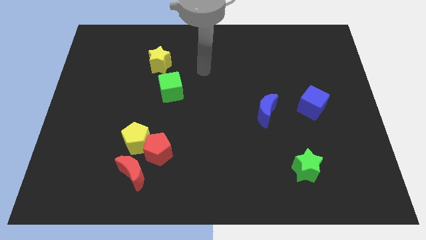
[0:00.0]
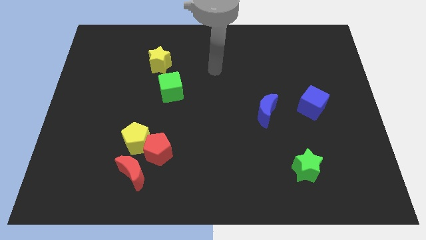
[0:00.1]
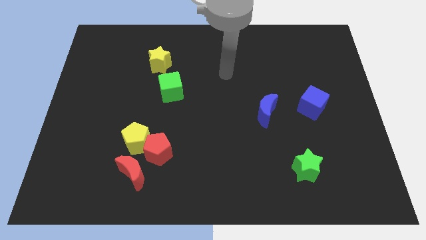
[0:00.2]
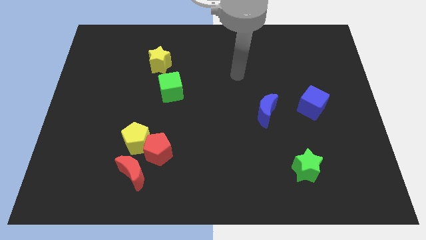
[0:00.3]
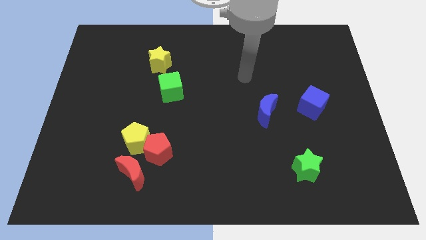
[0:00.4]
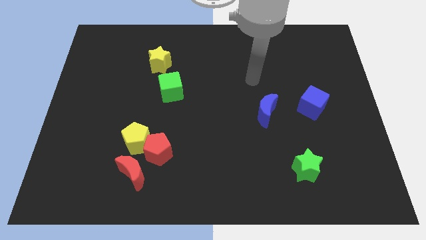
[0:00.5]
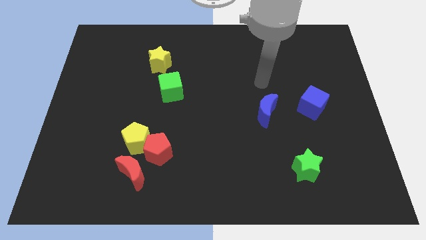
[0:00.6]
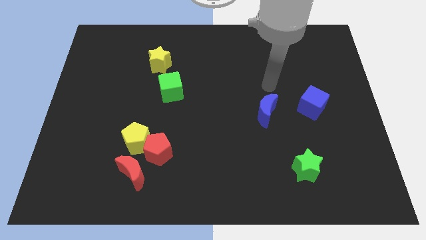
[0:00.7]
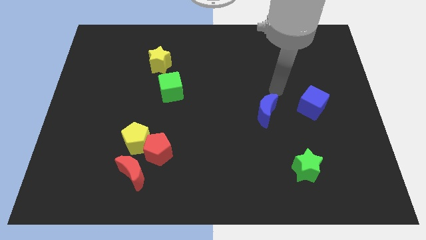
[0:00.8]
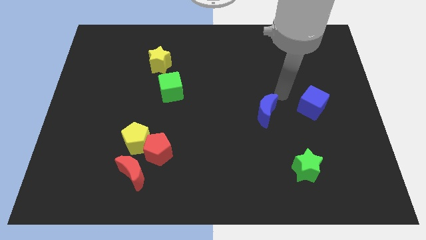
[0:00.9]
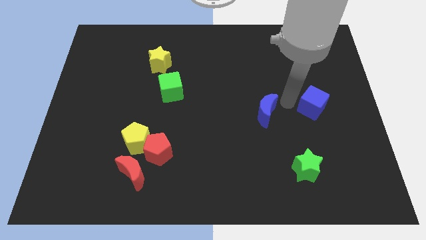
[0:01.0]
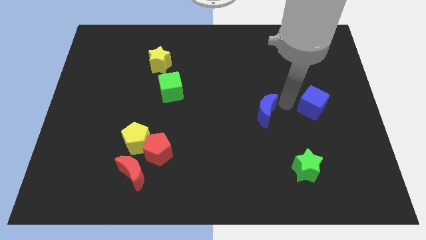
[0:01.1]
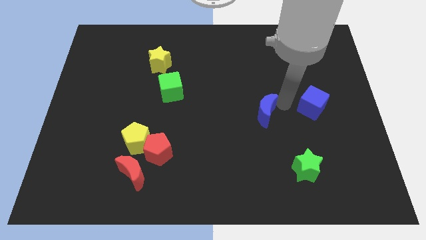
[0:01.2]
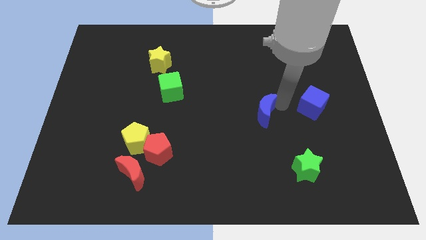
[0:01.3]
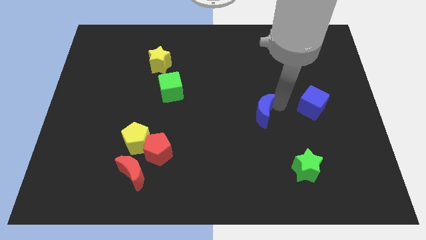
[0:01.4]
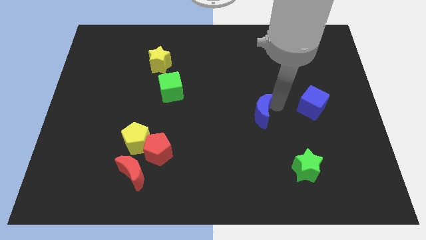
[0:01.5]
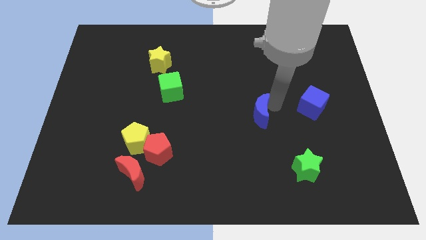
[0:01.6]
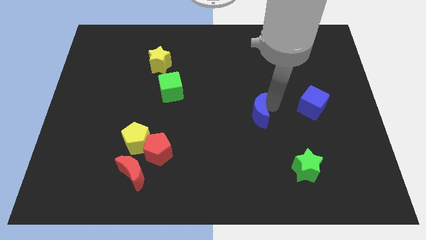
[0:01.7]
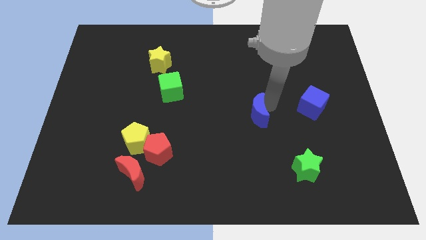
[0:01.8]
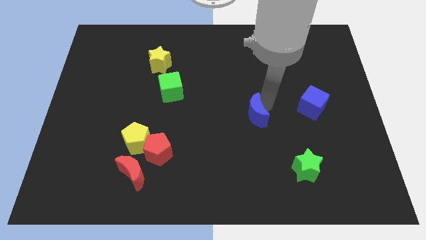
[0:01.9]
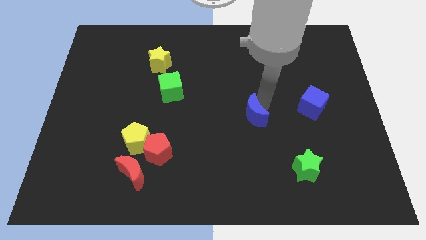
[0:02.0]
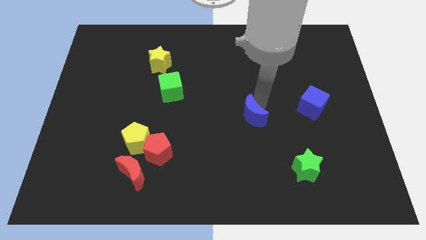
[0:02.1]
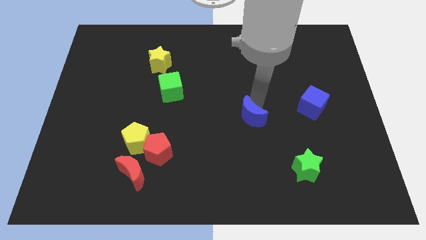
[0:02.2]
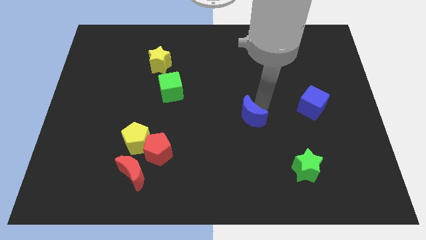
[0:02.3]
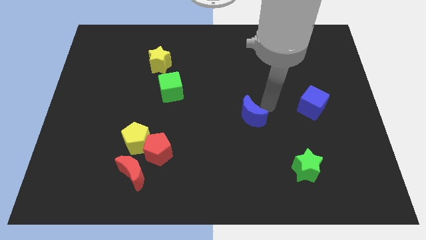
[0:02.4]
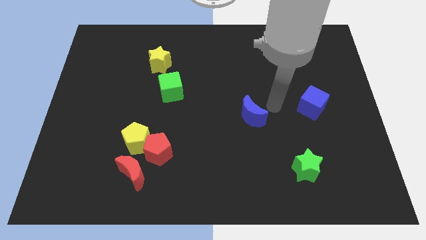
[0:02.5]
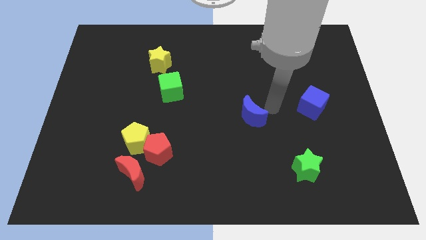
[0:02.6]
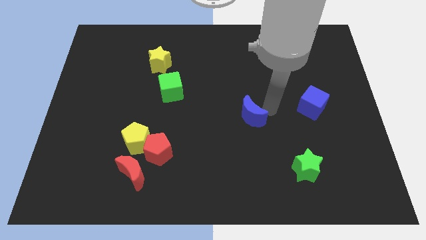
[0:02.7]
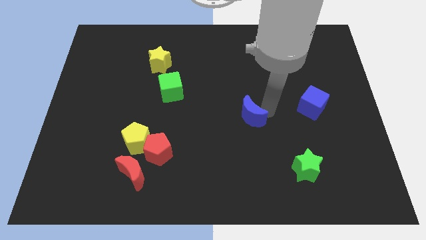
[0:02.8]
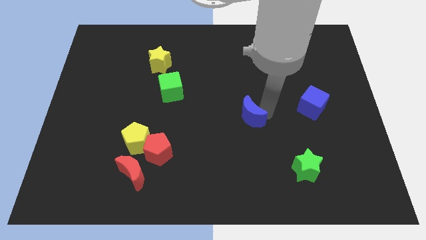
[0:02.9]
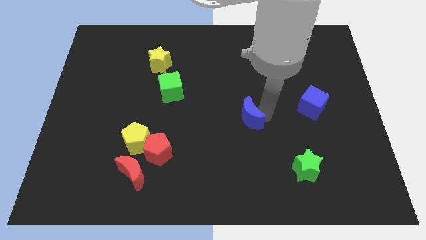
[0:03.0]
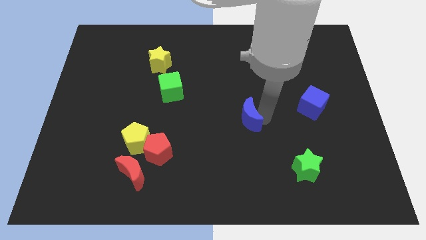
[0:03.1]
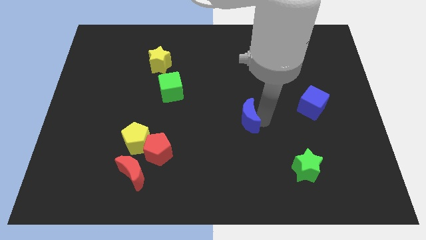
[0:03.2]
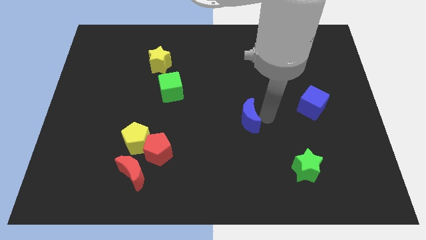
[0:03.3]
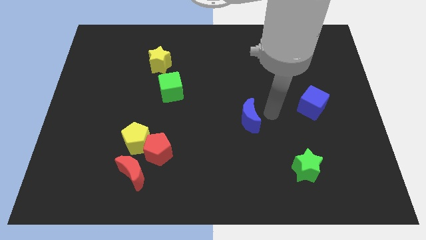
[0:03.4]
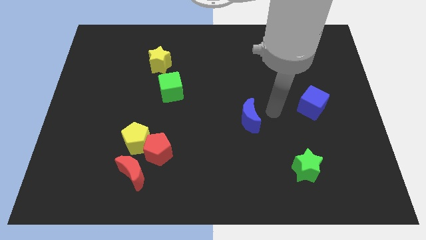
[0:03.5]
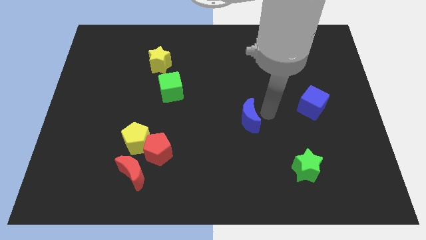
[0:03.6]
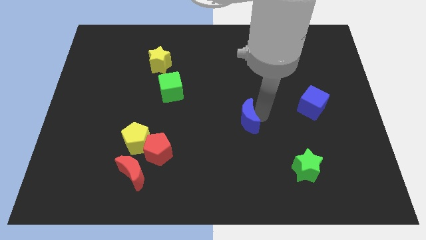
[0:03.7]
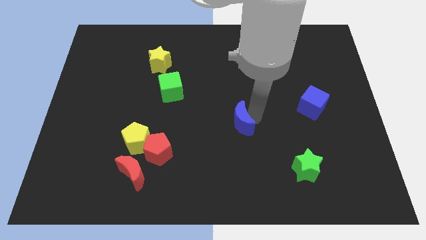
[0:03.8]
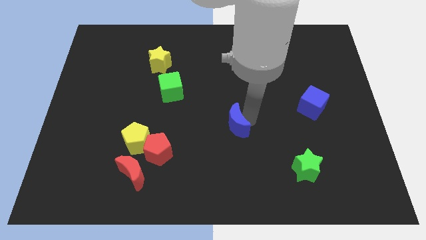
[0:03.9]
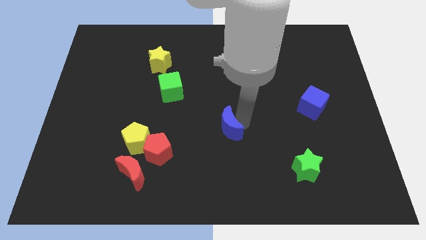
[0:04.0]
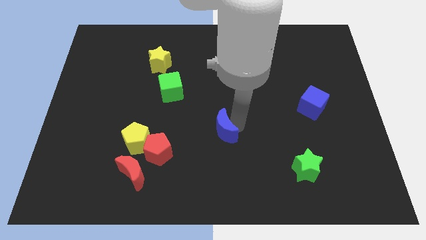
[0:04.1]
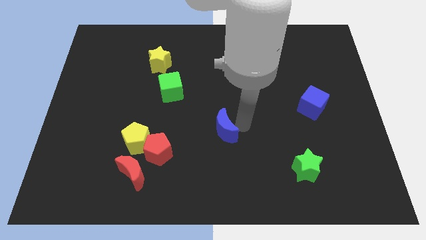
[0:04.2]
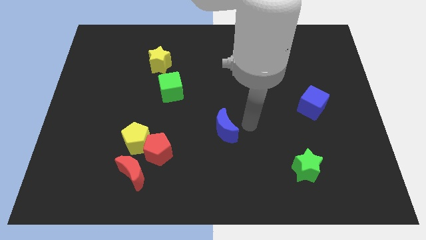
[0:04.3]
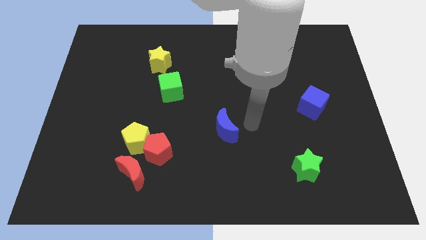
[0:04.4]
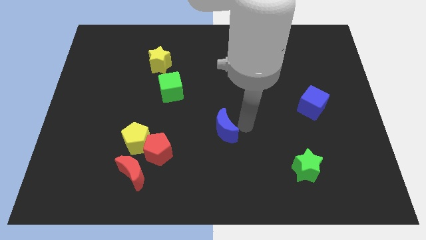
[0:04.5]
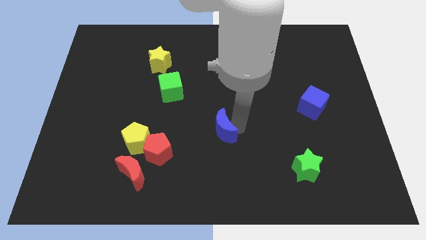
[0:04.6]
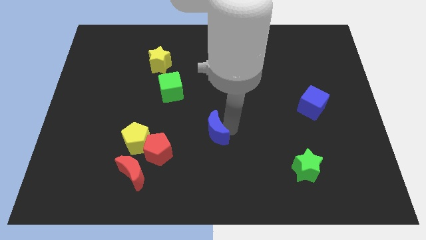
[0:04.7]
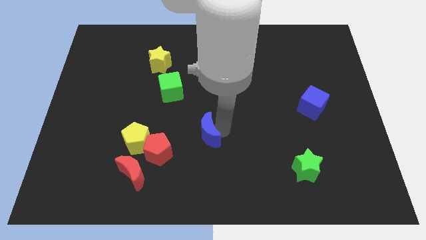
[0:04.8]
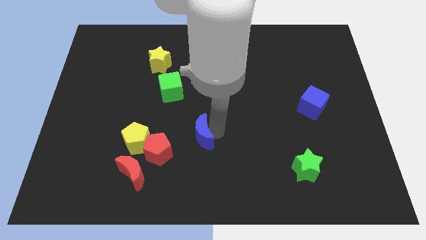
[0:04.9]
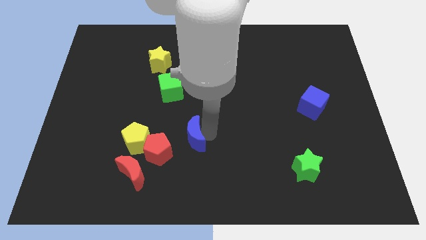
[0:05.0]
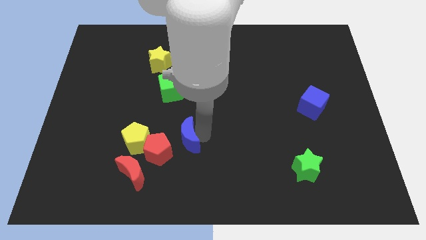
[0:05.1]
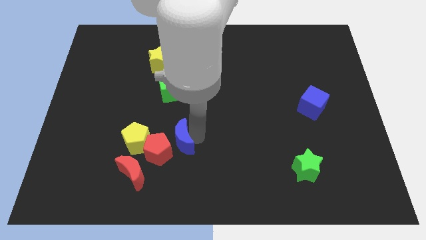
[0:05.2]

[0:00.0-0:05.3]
push the blue moon to the top right side of the red moon

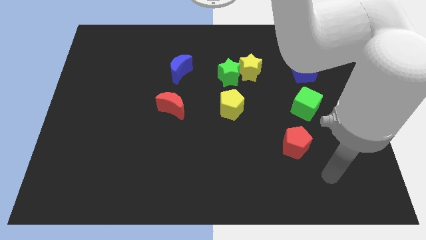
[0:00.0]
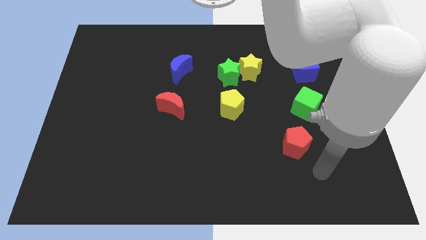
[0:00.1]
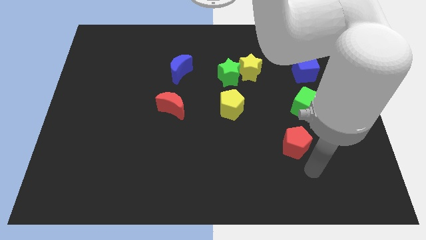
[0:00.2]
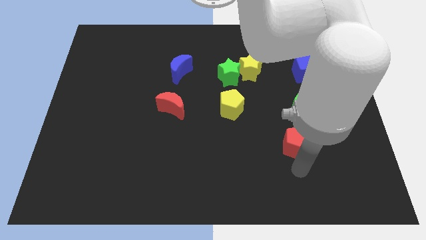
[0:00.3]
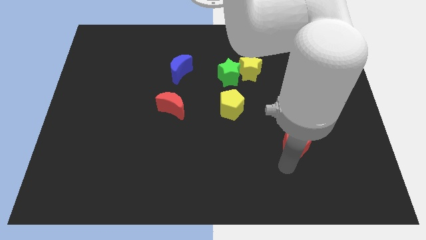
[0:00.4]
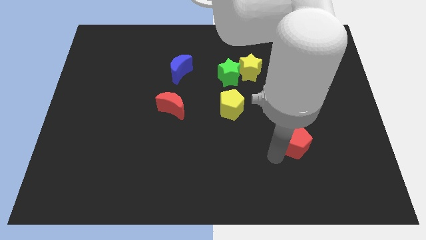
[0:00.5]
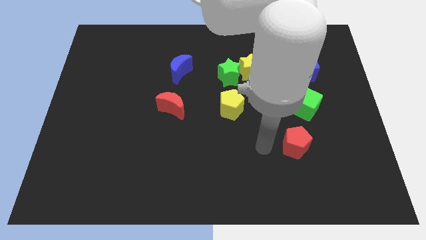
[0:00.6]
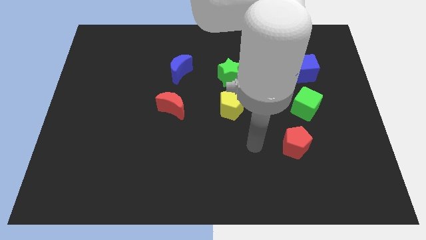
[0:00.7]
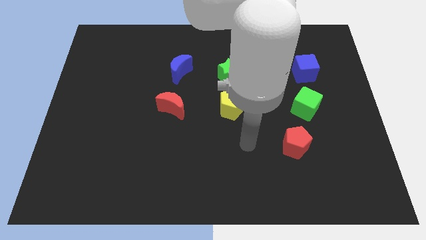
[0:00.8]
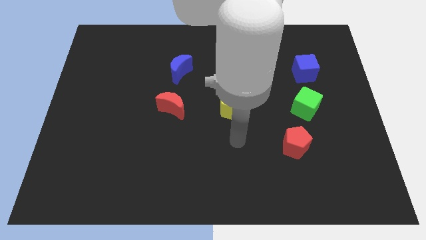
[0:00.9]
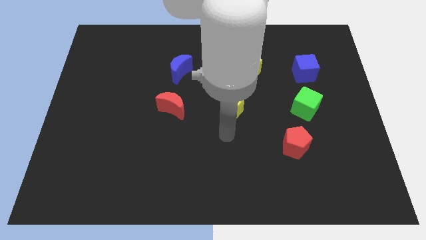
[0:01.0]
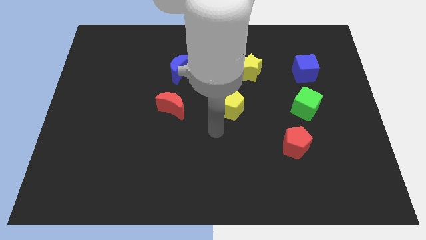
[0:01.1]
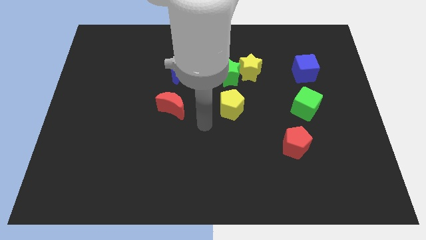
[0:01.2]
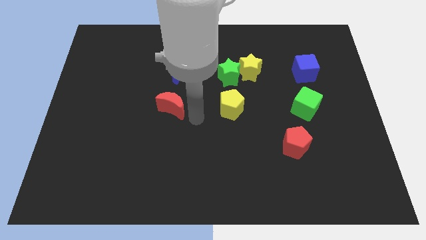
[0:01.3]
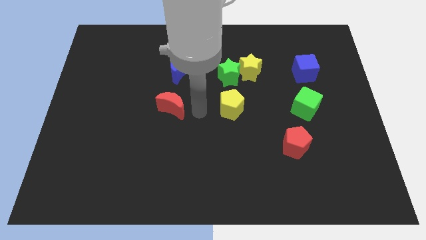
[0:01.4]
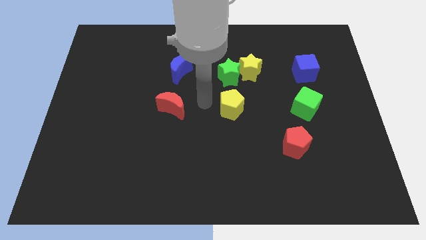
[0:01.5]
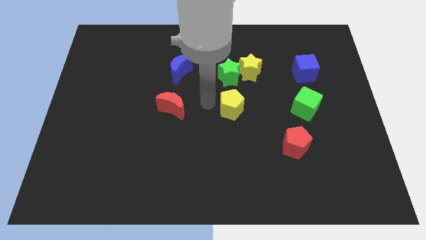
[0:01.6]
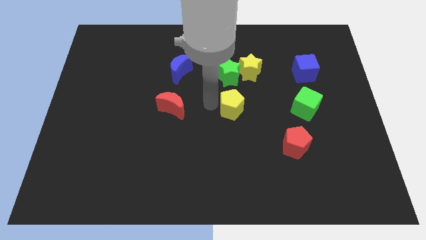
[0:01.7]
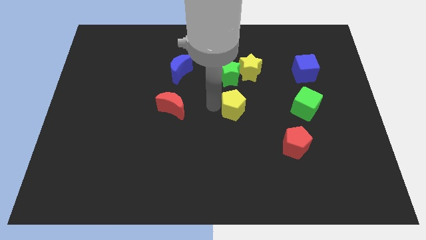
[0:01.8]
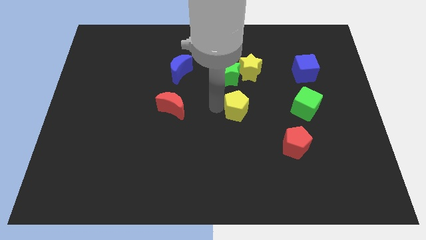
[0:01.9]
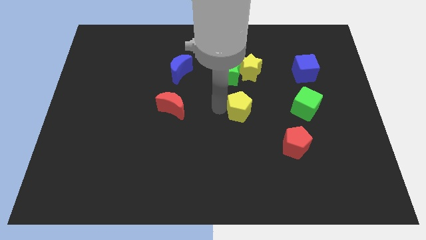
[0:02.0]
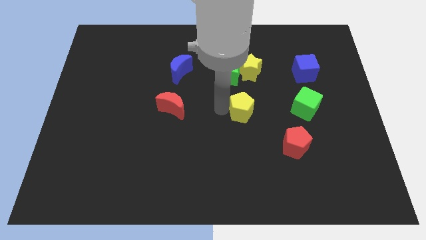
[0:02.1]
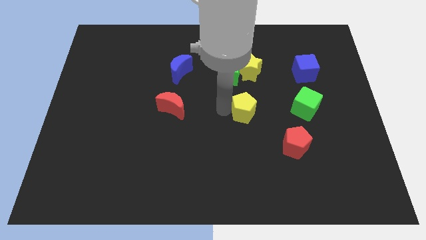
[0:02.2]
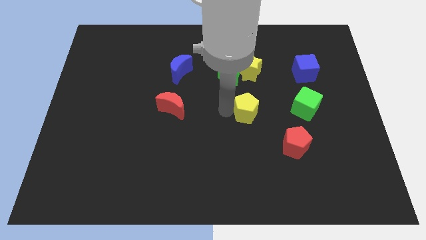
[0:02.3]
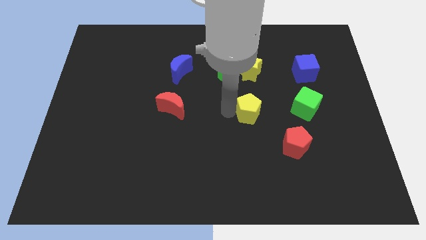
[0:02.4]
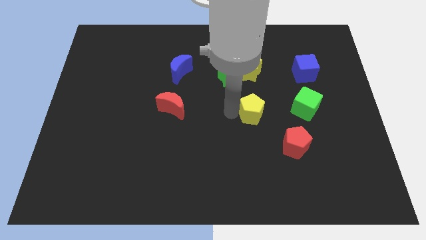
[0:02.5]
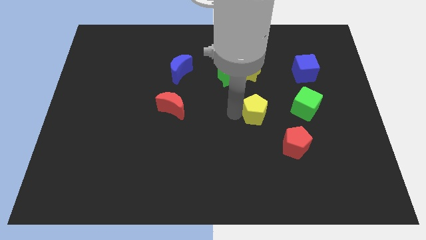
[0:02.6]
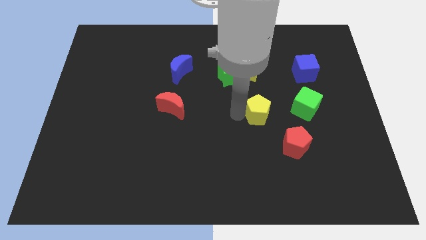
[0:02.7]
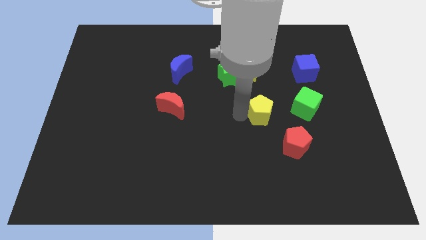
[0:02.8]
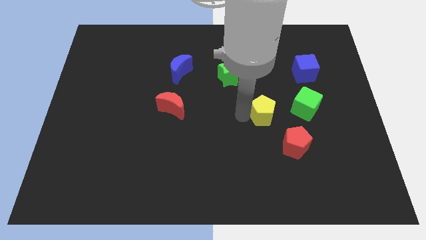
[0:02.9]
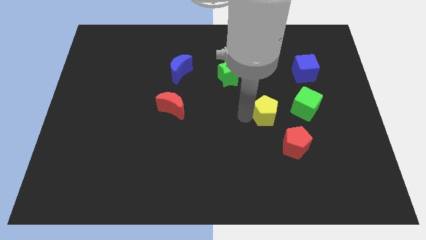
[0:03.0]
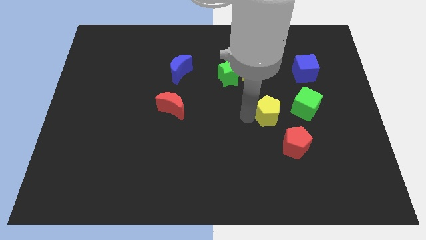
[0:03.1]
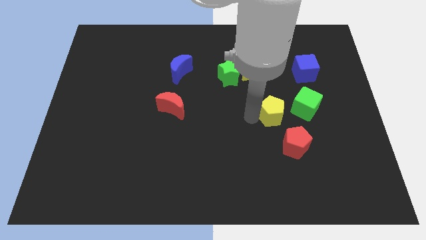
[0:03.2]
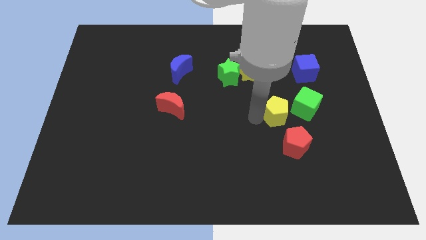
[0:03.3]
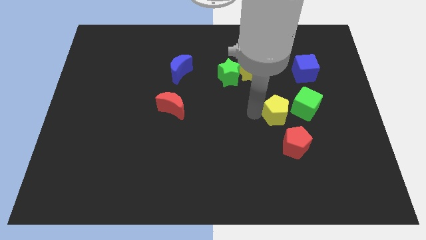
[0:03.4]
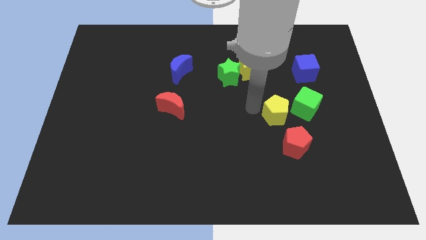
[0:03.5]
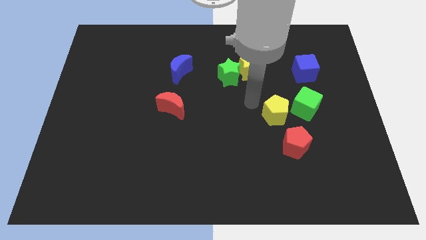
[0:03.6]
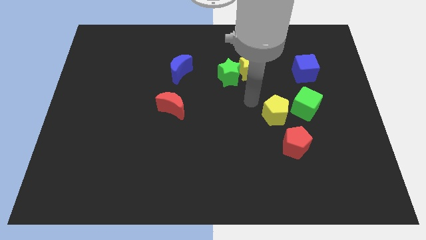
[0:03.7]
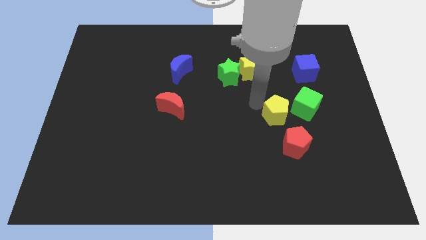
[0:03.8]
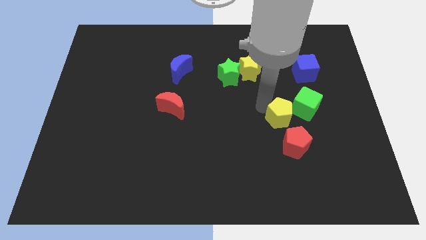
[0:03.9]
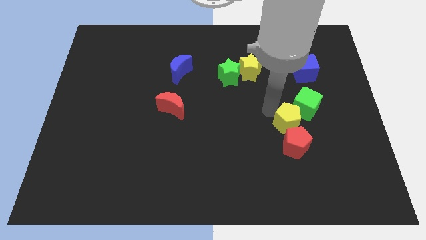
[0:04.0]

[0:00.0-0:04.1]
slide the yellow pentagon below the green cube
